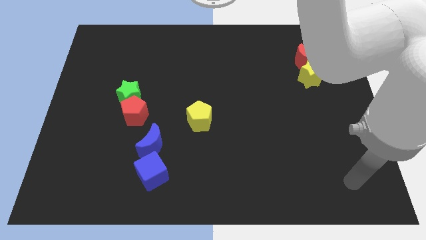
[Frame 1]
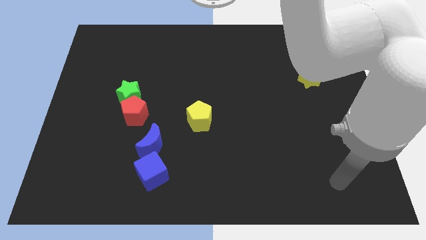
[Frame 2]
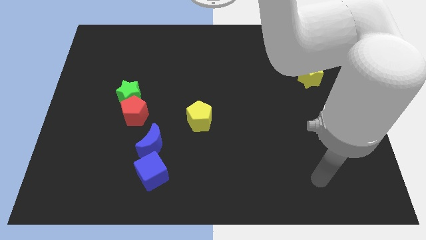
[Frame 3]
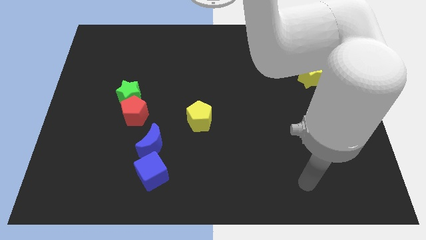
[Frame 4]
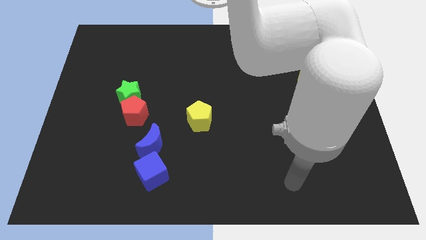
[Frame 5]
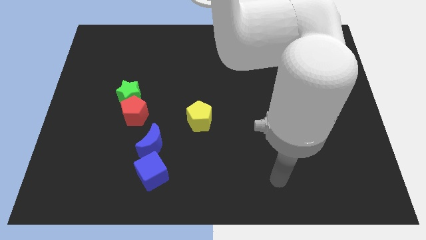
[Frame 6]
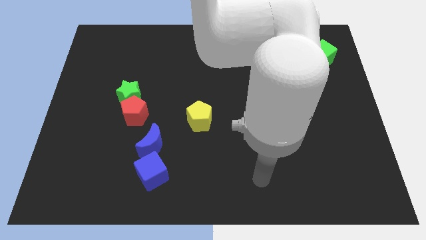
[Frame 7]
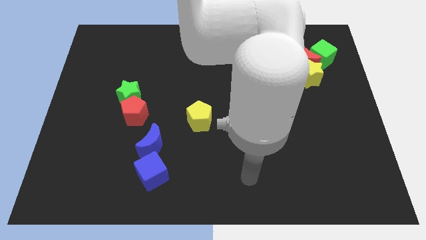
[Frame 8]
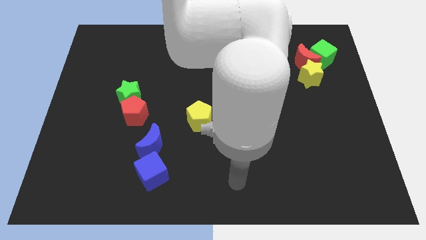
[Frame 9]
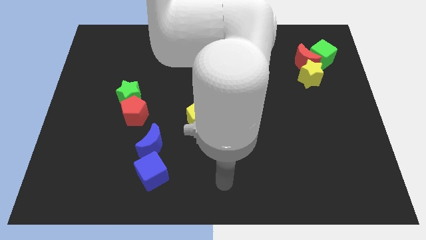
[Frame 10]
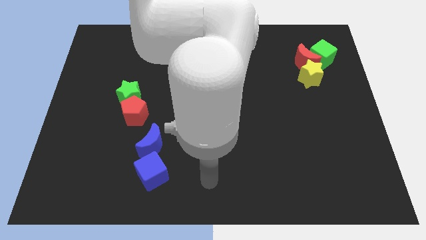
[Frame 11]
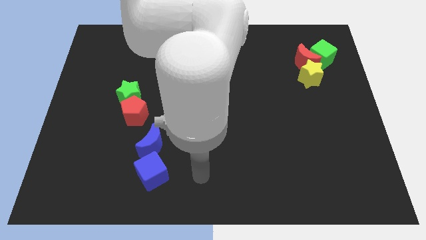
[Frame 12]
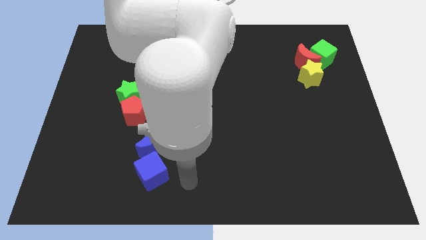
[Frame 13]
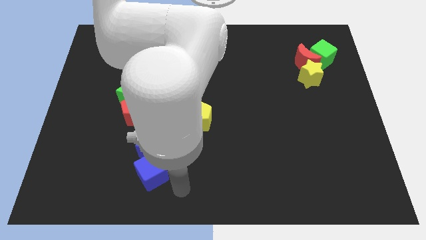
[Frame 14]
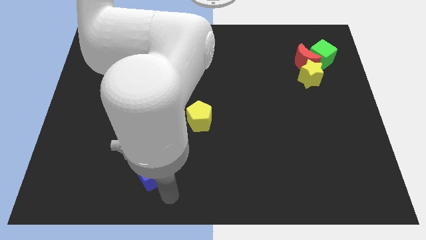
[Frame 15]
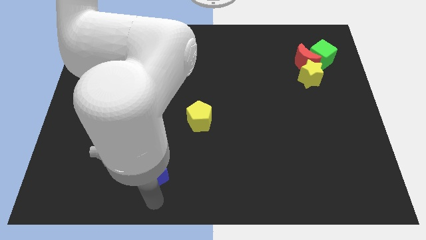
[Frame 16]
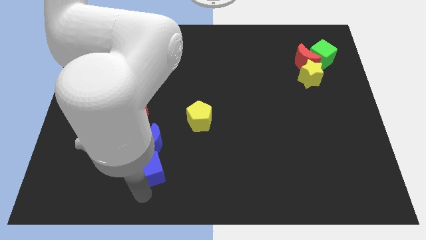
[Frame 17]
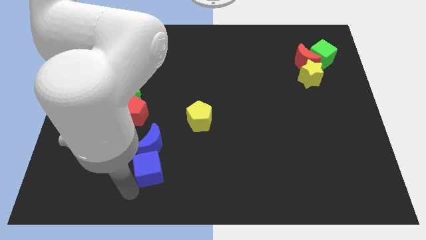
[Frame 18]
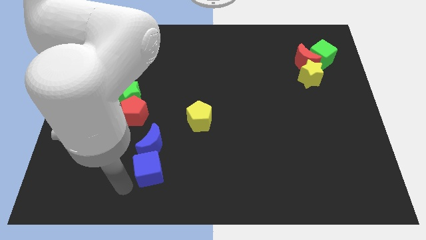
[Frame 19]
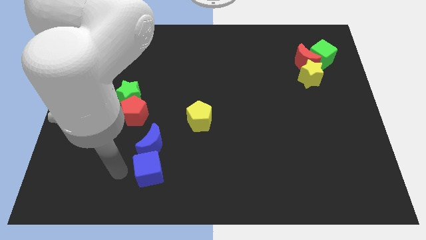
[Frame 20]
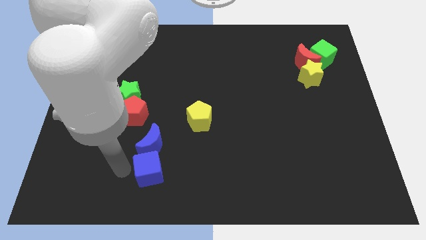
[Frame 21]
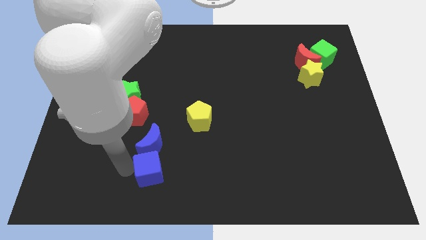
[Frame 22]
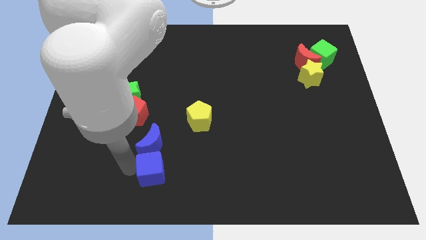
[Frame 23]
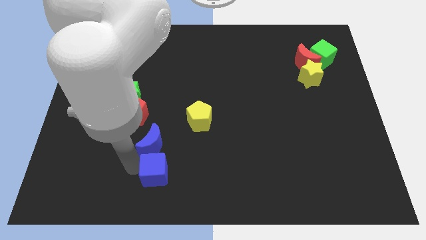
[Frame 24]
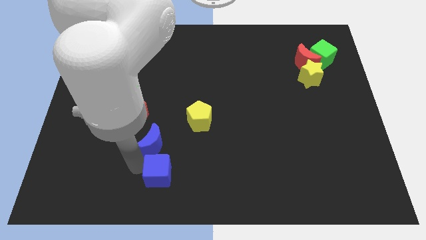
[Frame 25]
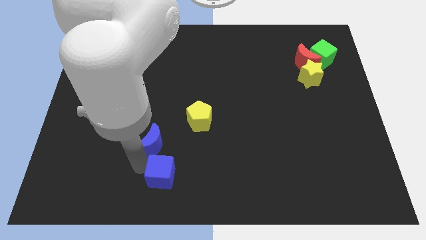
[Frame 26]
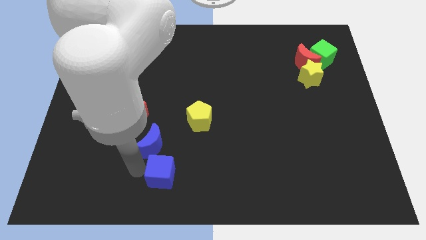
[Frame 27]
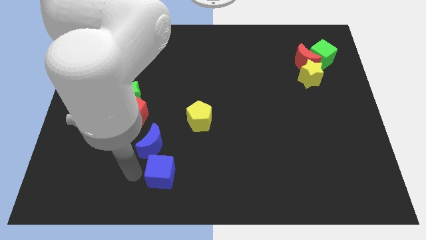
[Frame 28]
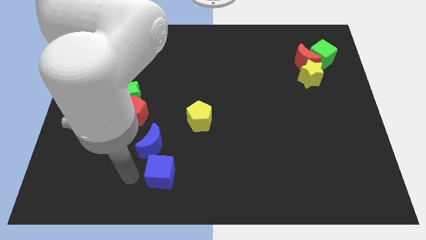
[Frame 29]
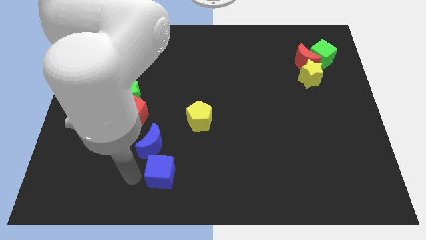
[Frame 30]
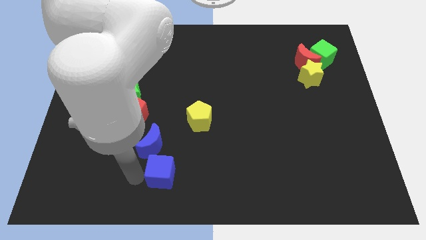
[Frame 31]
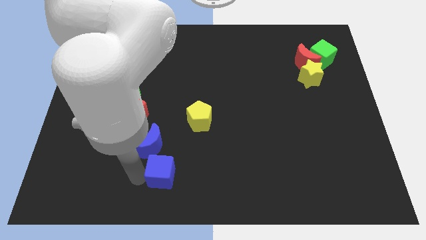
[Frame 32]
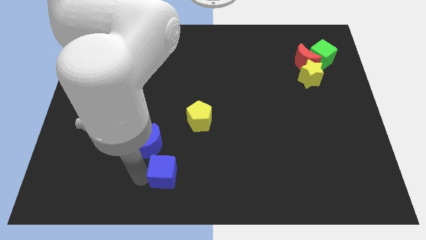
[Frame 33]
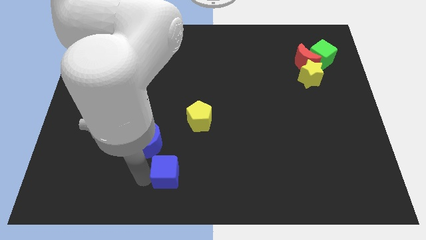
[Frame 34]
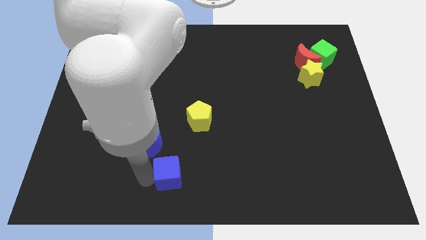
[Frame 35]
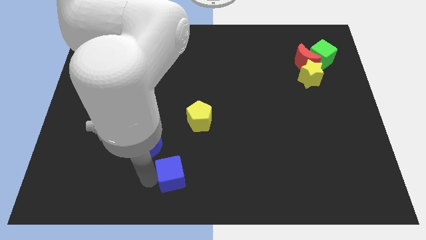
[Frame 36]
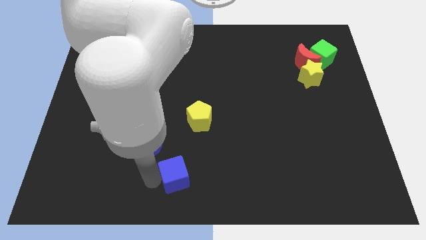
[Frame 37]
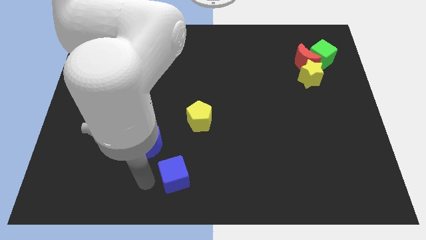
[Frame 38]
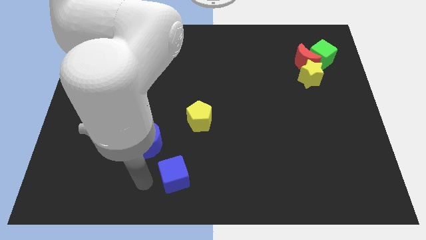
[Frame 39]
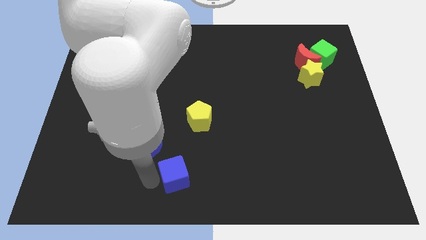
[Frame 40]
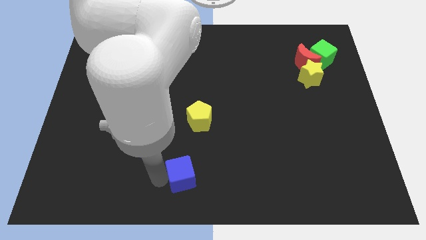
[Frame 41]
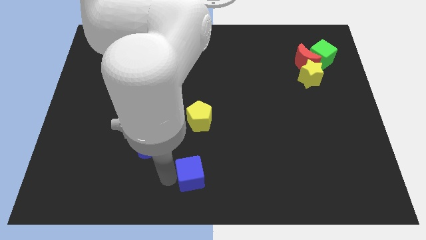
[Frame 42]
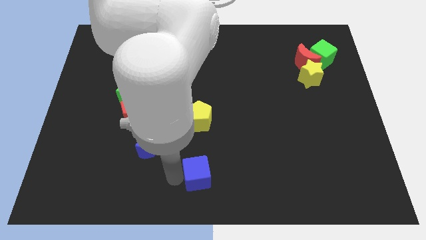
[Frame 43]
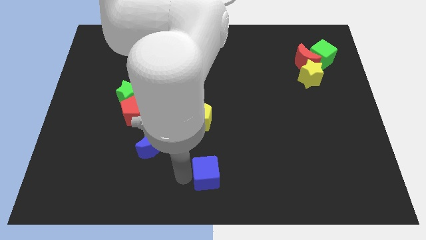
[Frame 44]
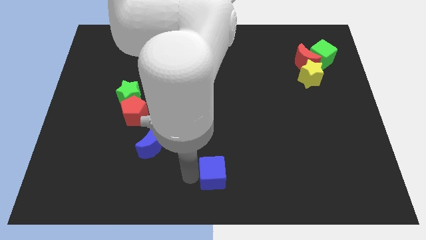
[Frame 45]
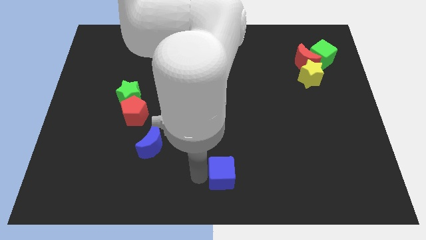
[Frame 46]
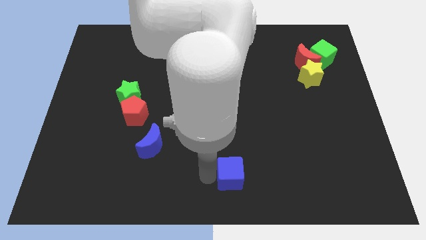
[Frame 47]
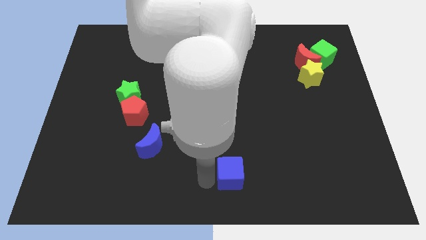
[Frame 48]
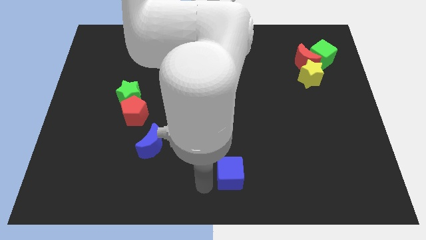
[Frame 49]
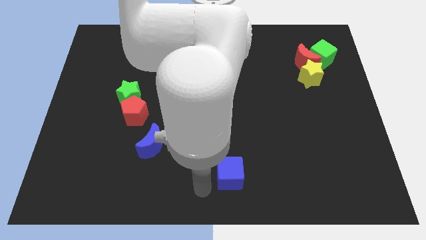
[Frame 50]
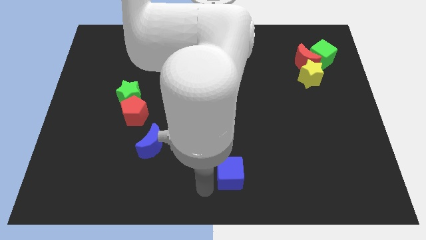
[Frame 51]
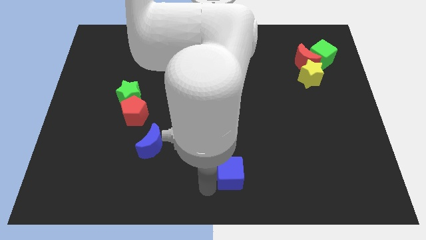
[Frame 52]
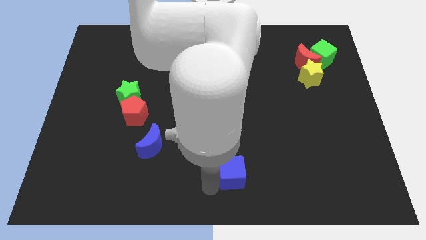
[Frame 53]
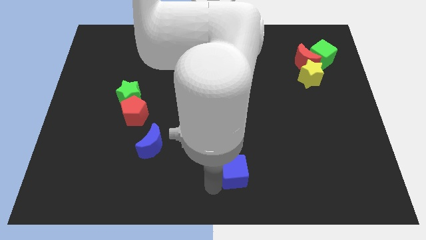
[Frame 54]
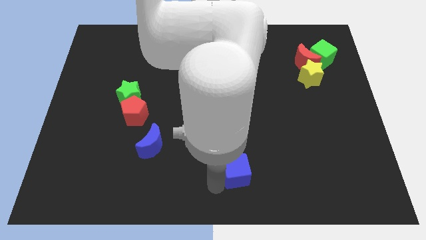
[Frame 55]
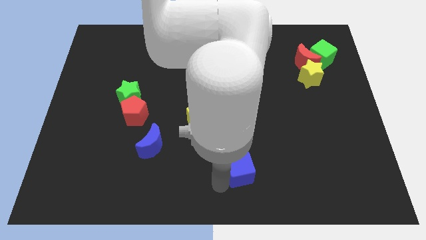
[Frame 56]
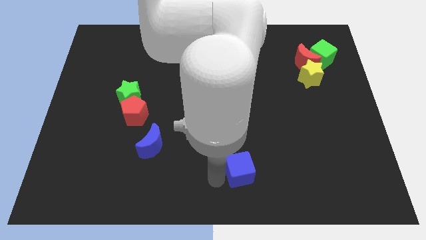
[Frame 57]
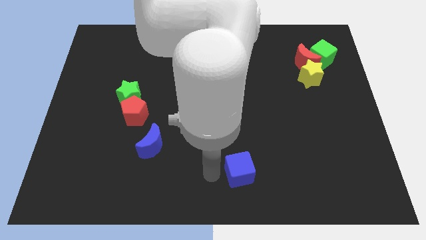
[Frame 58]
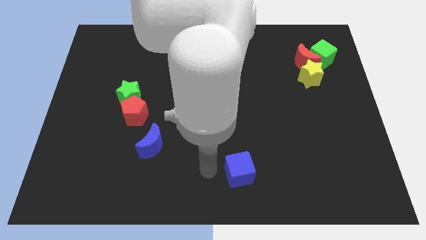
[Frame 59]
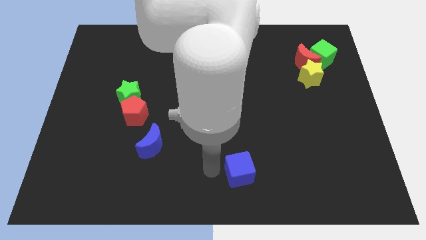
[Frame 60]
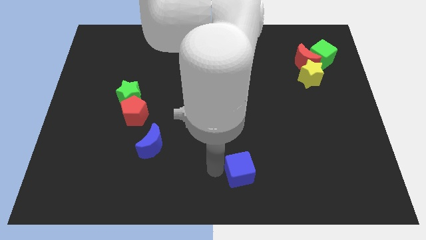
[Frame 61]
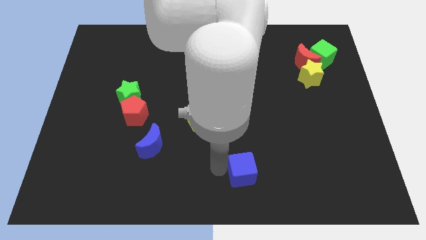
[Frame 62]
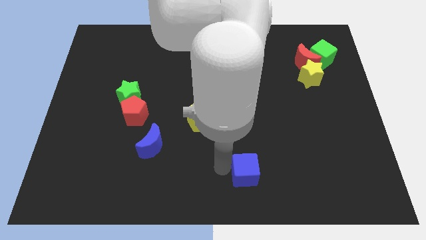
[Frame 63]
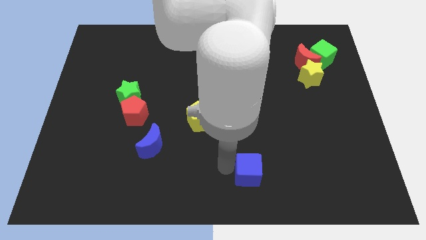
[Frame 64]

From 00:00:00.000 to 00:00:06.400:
slide the blue cube to the right

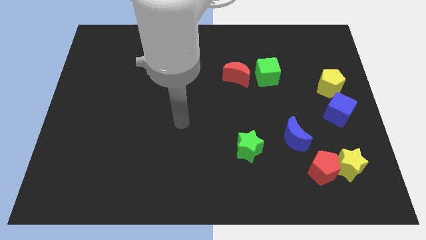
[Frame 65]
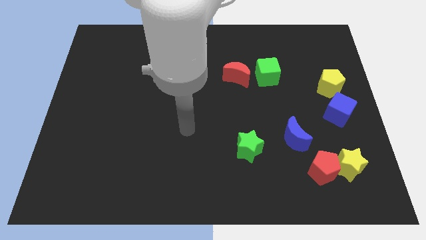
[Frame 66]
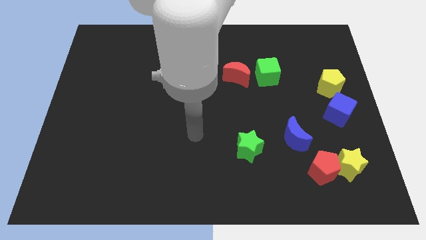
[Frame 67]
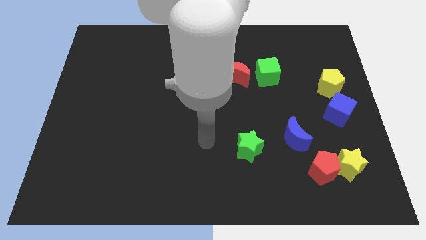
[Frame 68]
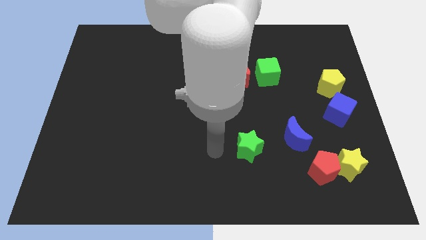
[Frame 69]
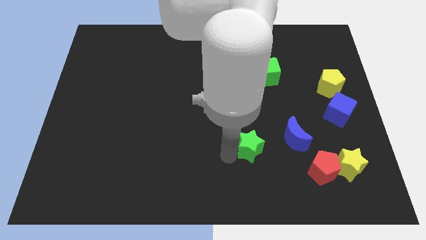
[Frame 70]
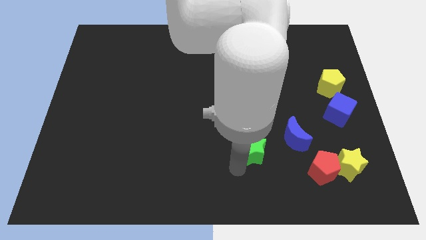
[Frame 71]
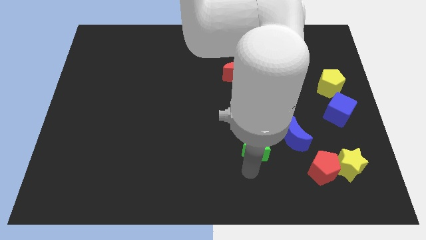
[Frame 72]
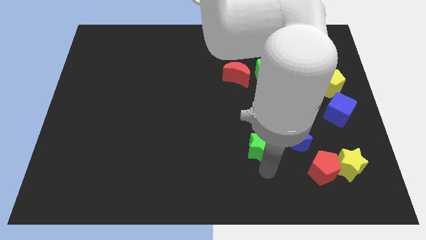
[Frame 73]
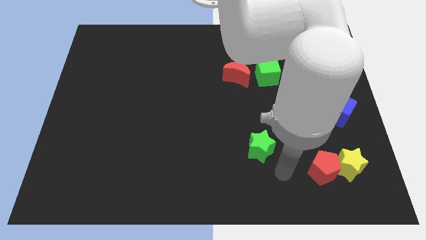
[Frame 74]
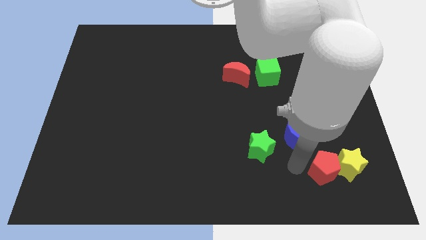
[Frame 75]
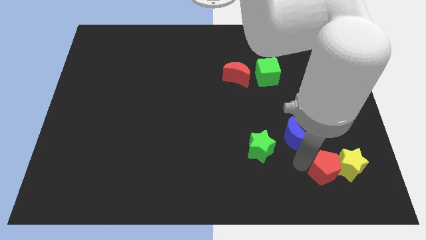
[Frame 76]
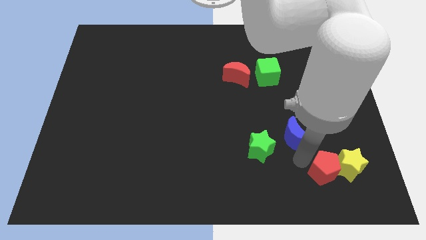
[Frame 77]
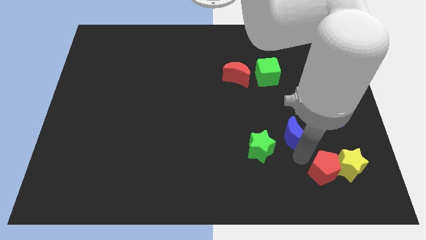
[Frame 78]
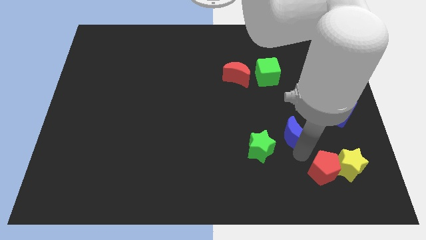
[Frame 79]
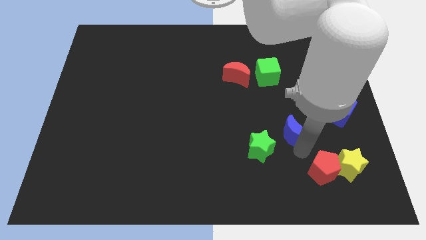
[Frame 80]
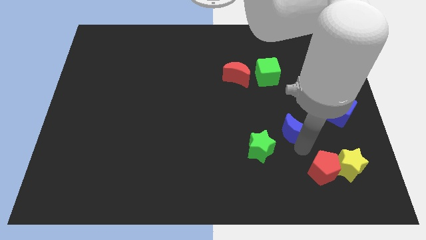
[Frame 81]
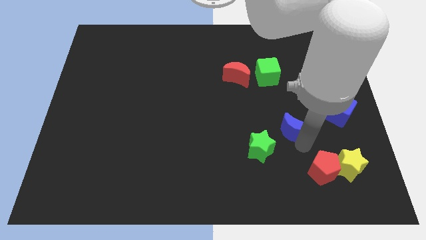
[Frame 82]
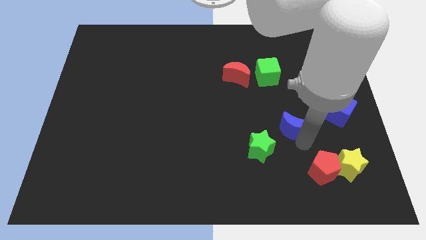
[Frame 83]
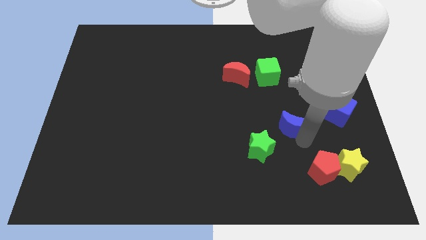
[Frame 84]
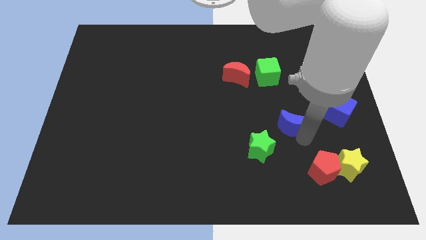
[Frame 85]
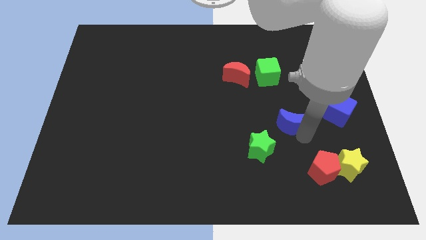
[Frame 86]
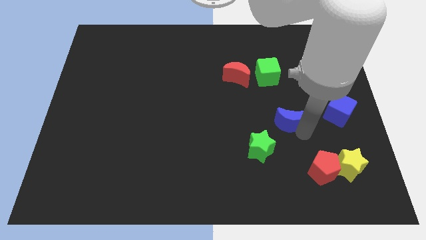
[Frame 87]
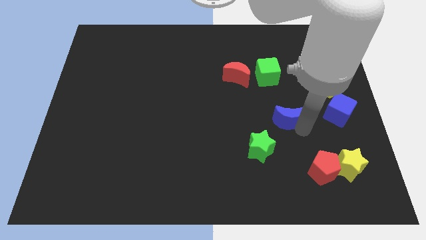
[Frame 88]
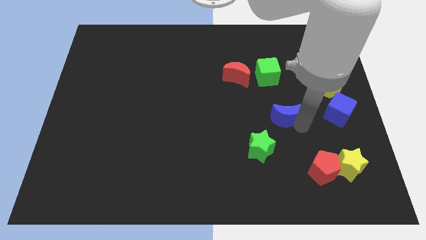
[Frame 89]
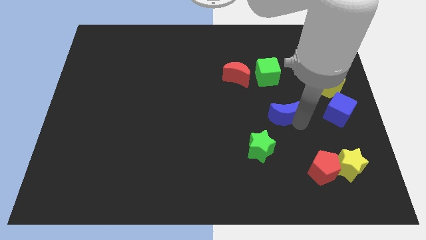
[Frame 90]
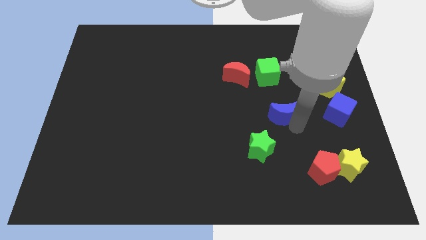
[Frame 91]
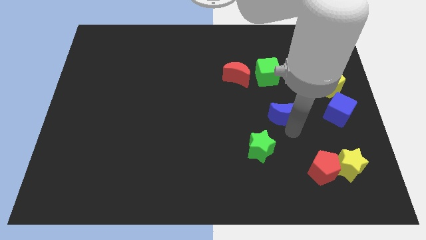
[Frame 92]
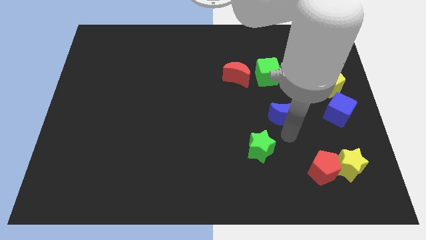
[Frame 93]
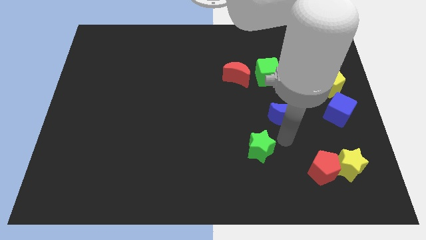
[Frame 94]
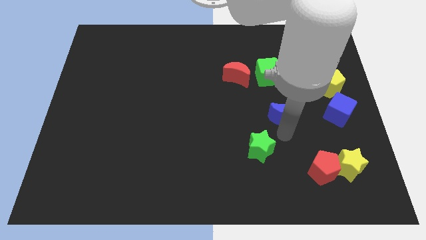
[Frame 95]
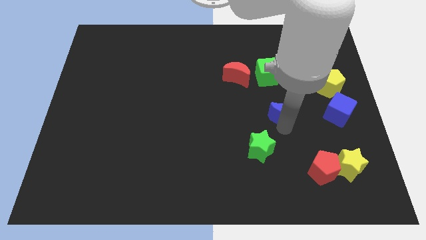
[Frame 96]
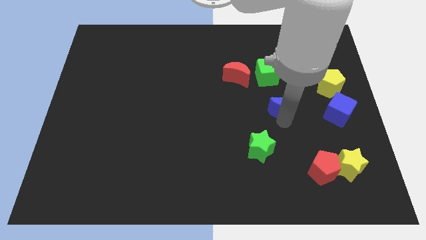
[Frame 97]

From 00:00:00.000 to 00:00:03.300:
slightly slide the blue moon upwards
